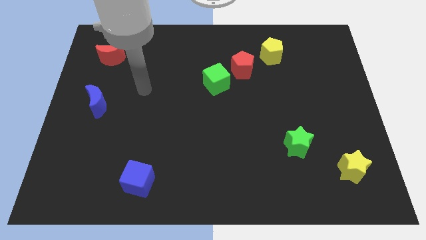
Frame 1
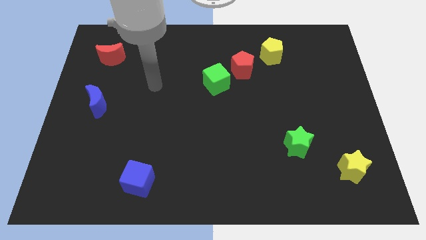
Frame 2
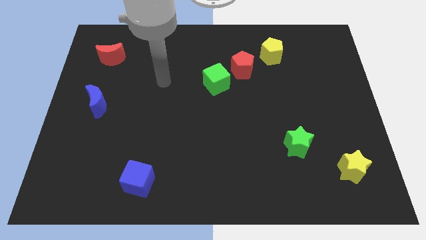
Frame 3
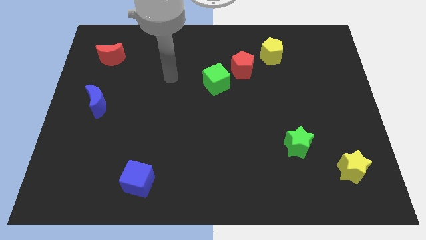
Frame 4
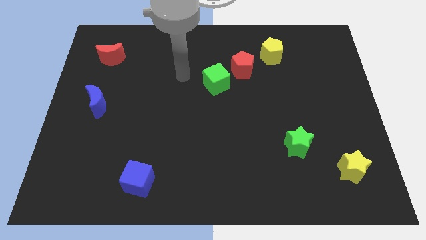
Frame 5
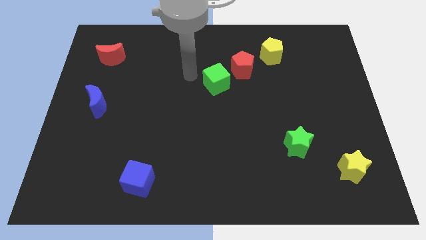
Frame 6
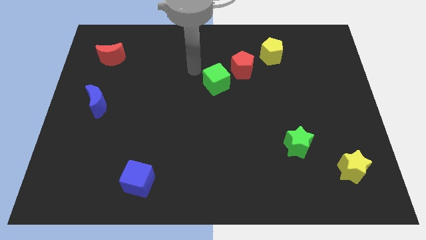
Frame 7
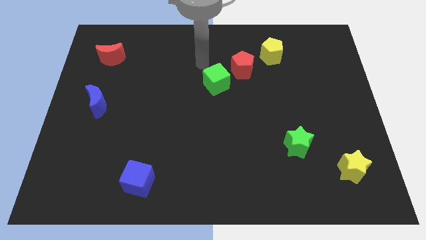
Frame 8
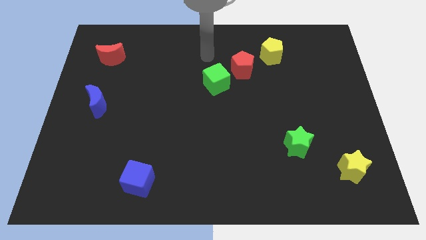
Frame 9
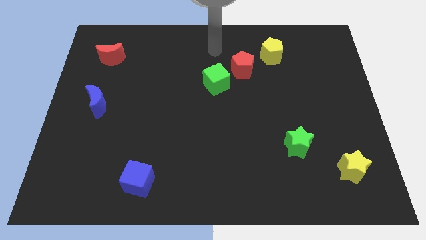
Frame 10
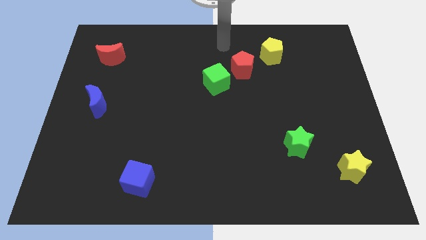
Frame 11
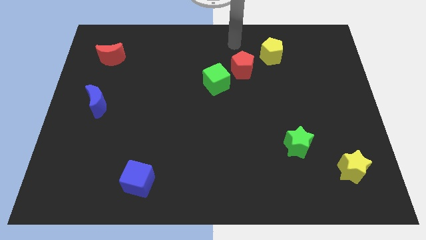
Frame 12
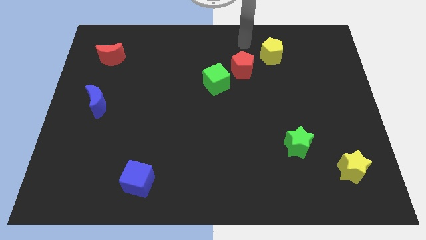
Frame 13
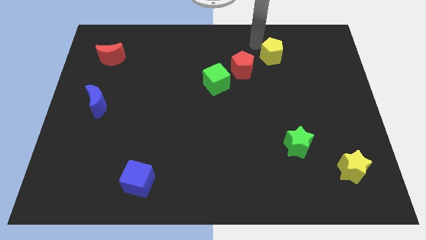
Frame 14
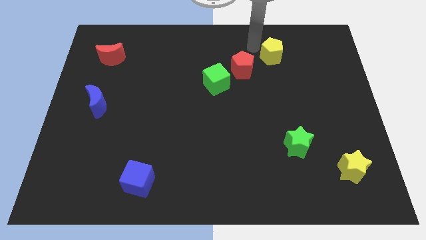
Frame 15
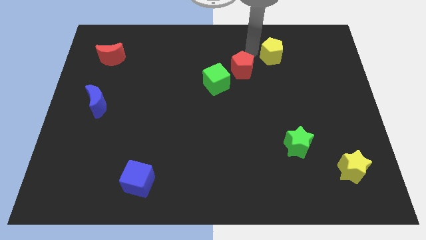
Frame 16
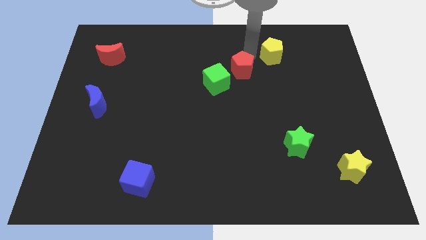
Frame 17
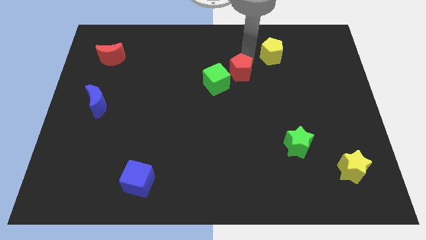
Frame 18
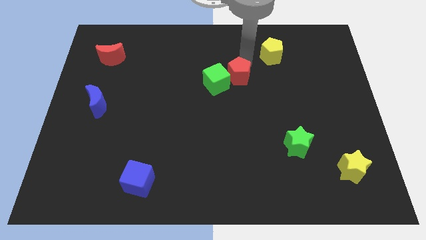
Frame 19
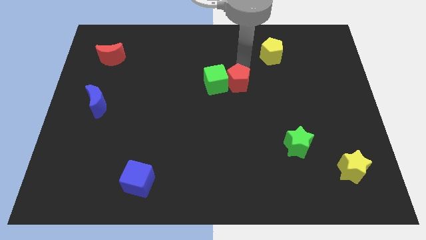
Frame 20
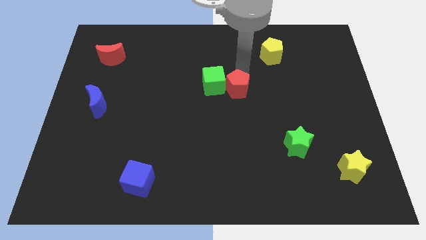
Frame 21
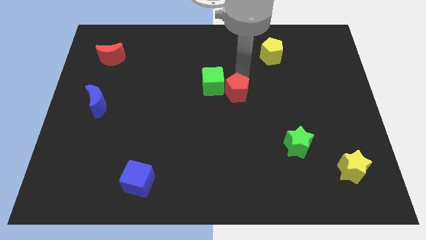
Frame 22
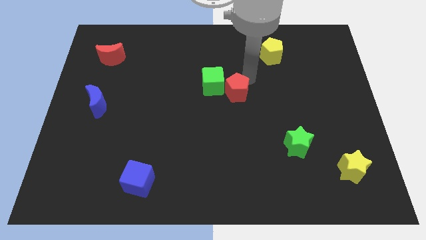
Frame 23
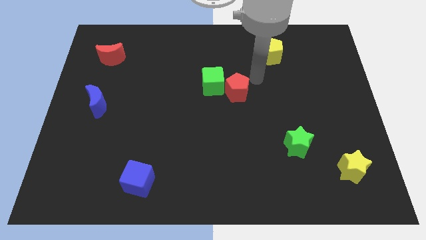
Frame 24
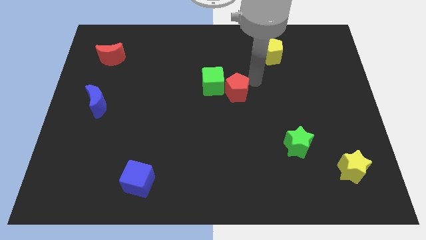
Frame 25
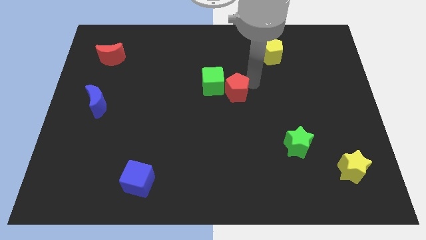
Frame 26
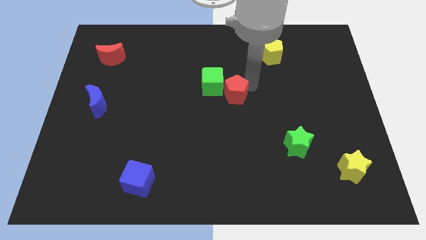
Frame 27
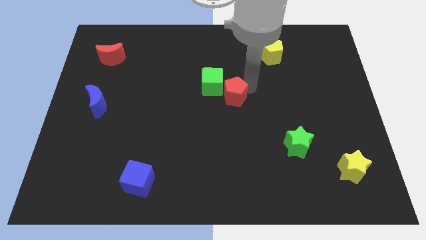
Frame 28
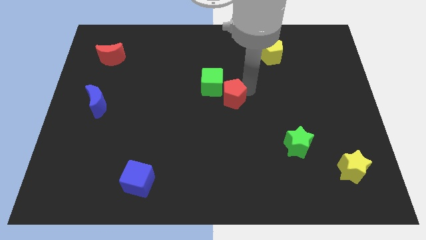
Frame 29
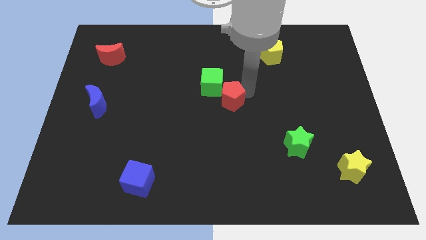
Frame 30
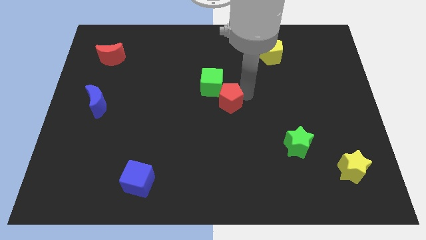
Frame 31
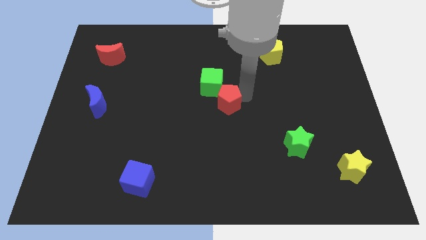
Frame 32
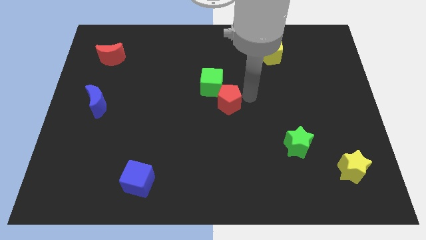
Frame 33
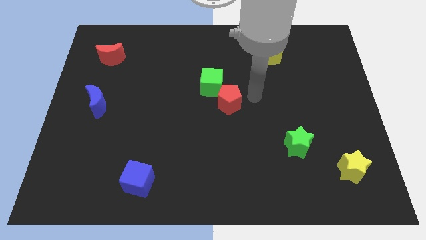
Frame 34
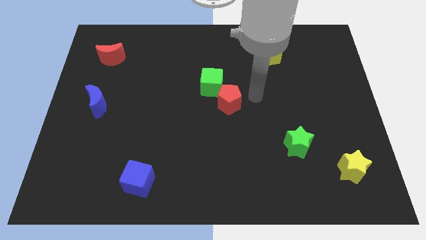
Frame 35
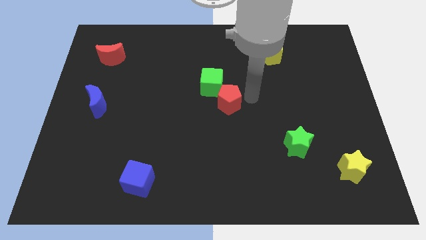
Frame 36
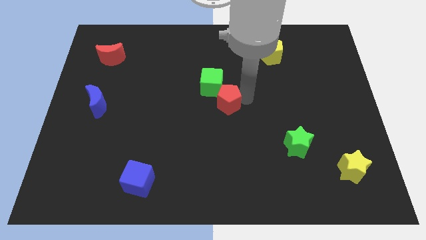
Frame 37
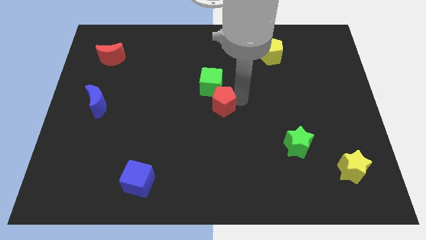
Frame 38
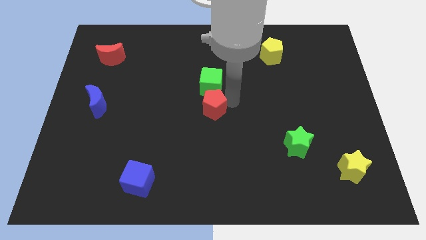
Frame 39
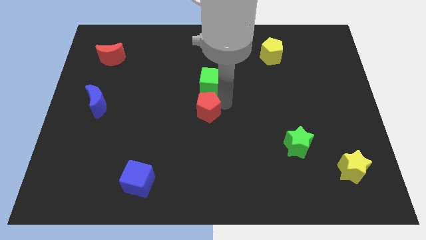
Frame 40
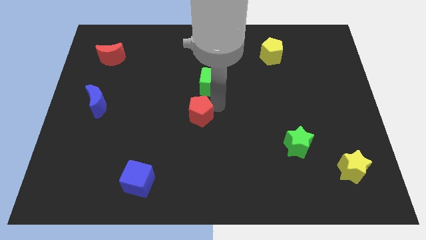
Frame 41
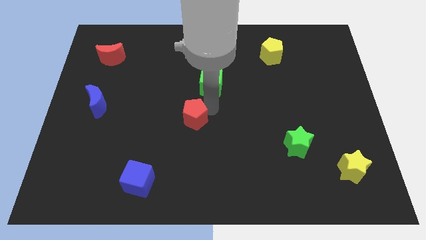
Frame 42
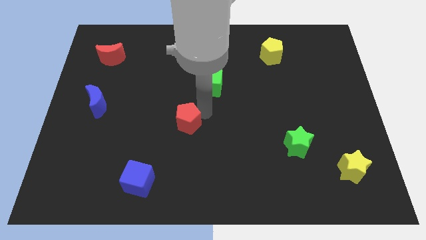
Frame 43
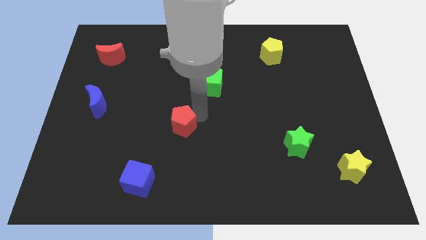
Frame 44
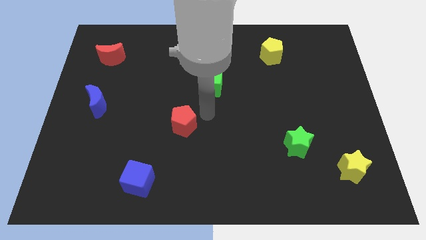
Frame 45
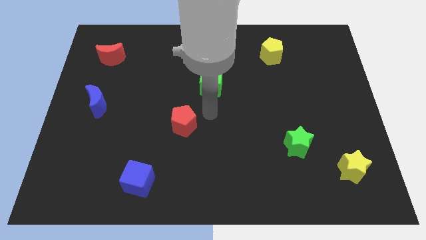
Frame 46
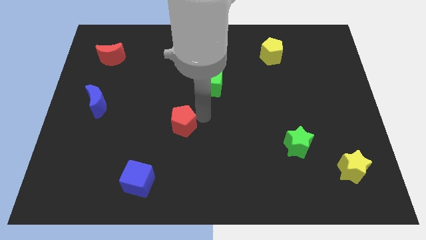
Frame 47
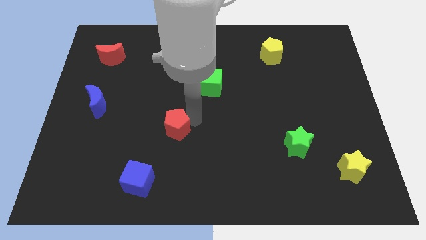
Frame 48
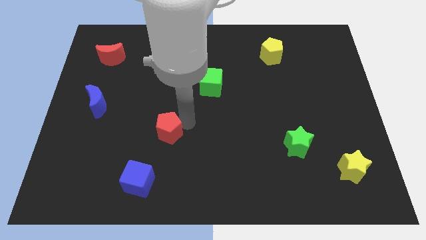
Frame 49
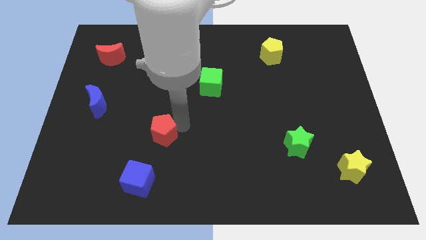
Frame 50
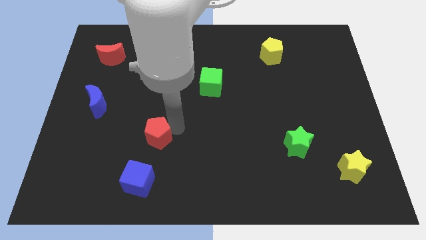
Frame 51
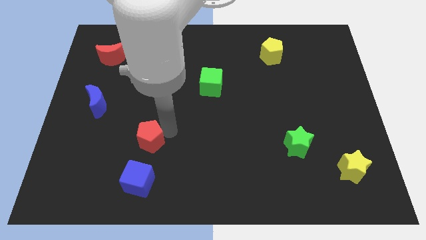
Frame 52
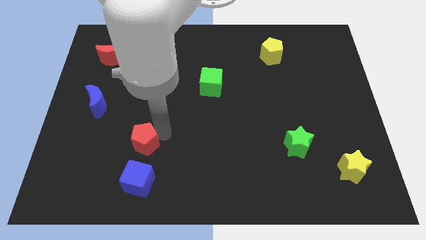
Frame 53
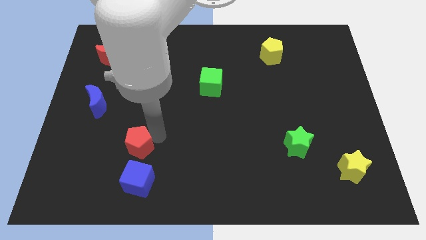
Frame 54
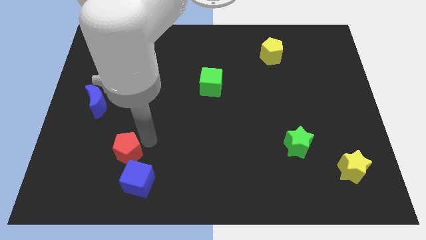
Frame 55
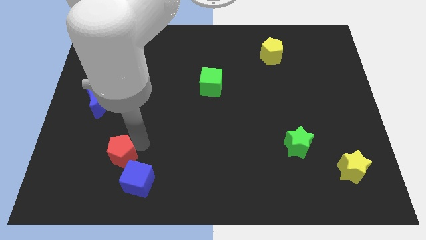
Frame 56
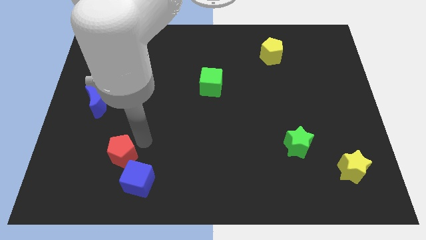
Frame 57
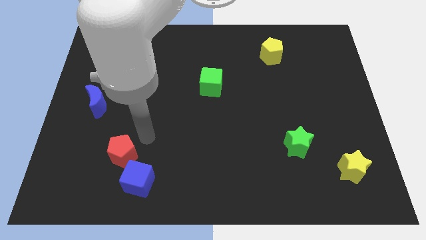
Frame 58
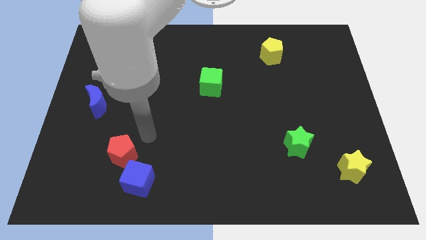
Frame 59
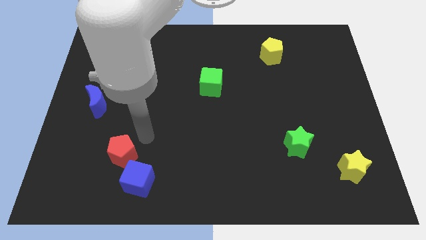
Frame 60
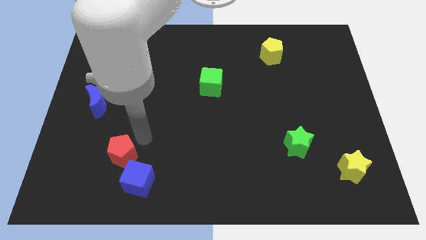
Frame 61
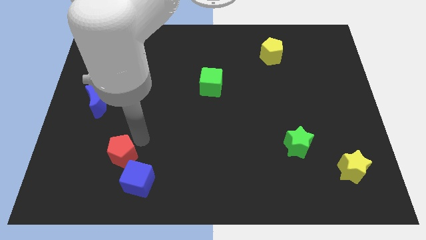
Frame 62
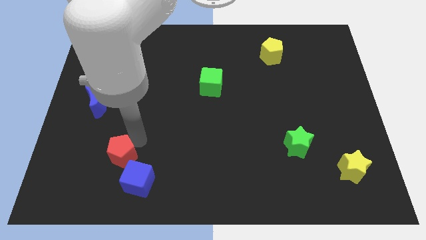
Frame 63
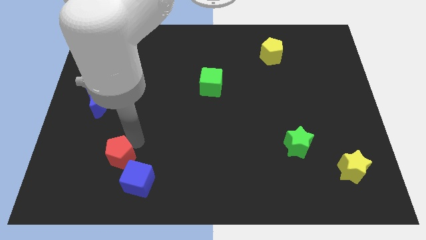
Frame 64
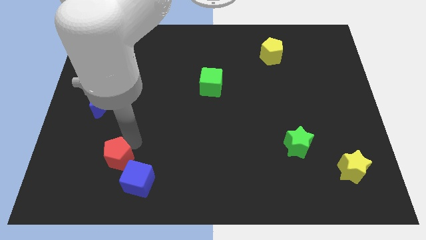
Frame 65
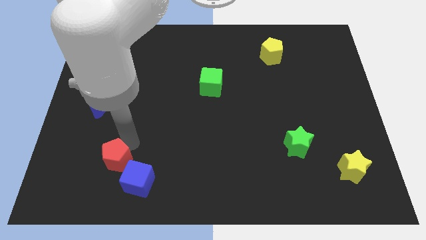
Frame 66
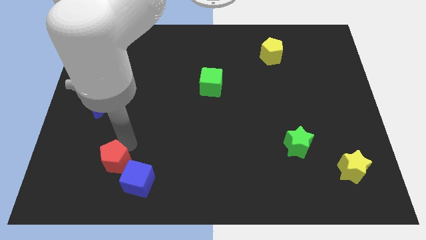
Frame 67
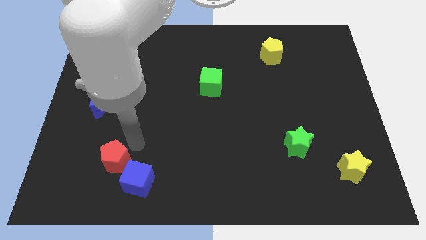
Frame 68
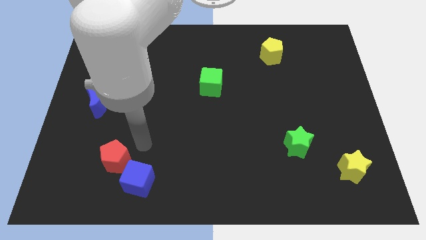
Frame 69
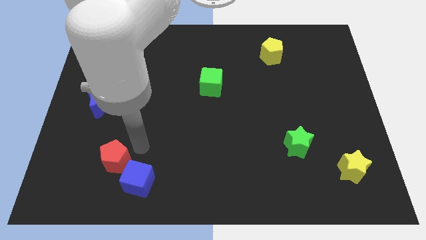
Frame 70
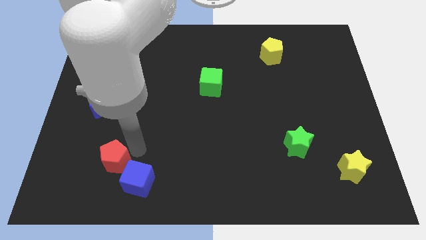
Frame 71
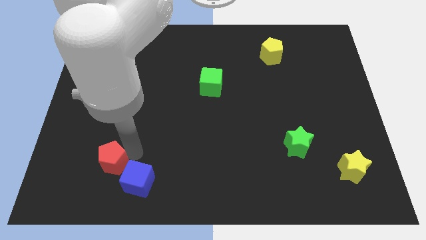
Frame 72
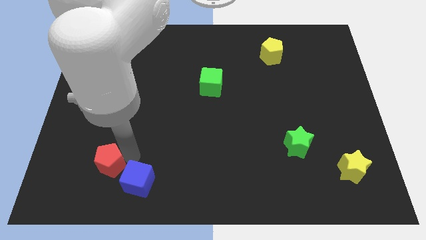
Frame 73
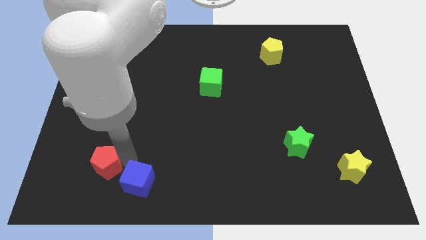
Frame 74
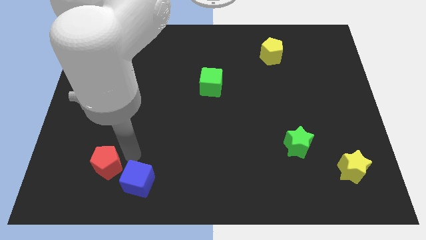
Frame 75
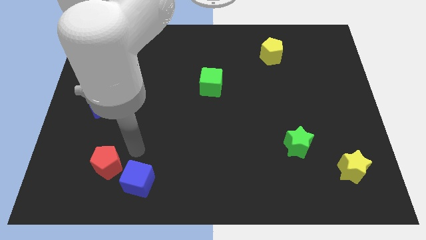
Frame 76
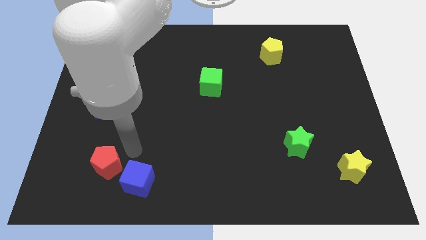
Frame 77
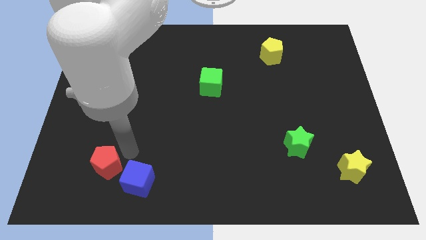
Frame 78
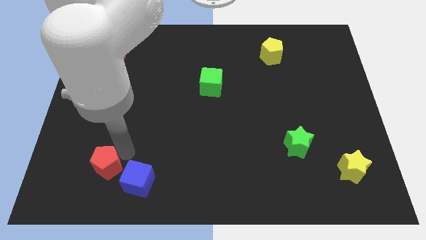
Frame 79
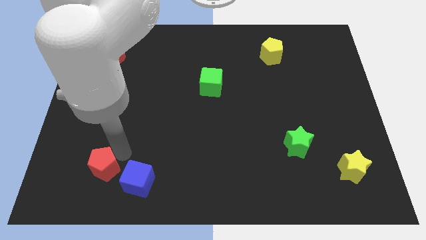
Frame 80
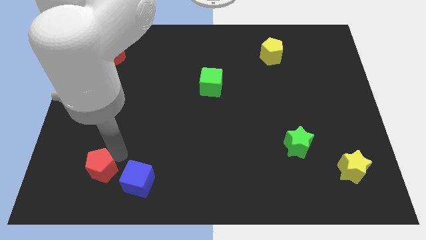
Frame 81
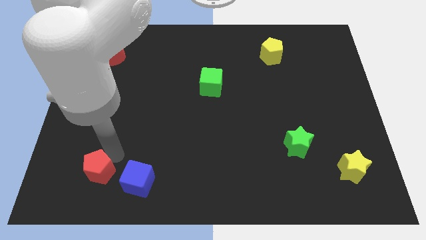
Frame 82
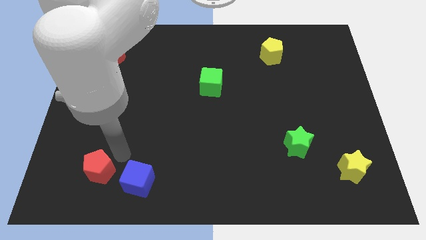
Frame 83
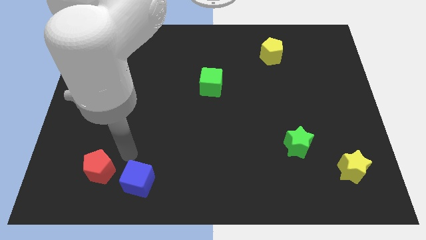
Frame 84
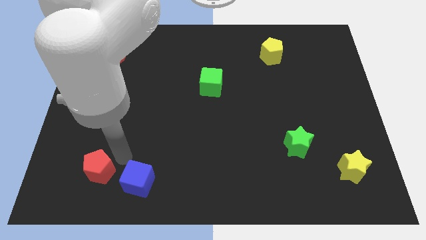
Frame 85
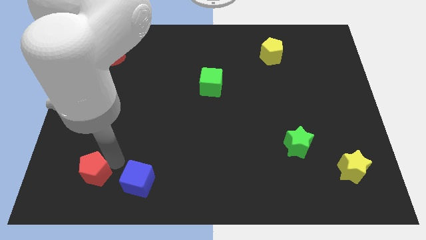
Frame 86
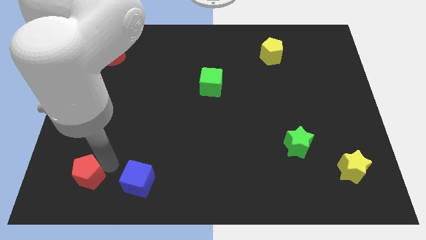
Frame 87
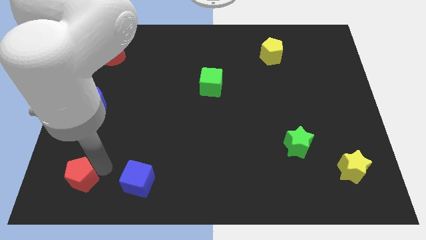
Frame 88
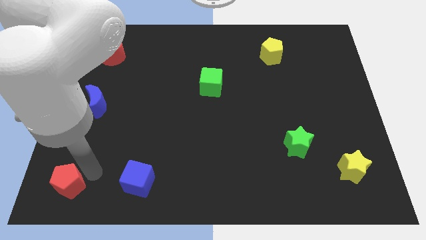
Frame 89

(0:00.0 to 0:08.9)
move the red pentagon to the bottom left corner
